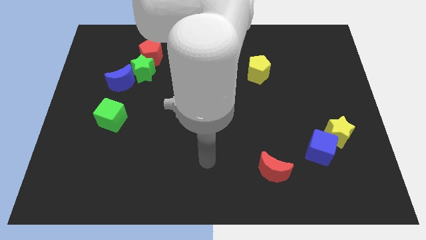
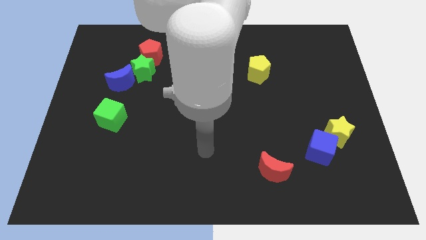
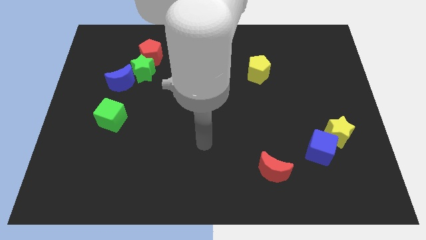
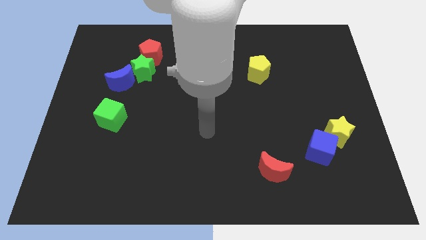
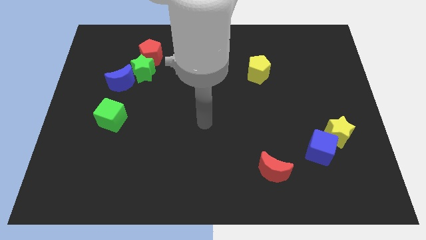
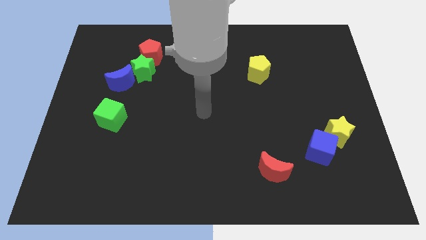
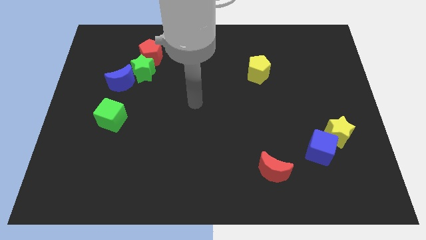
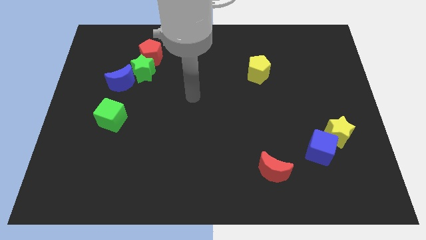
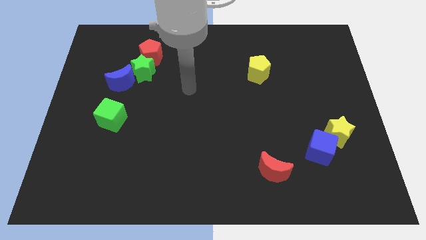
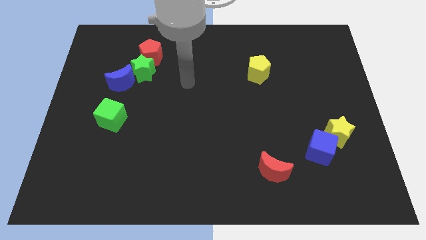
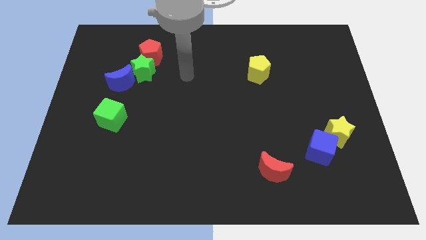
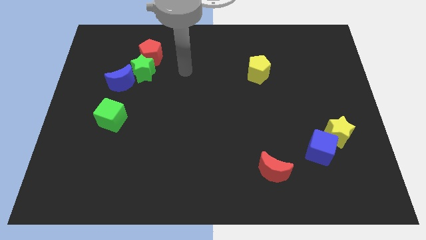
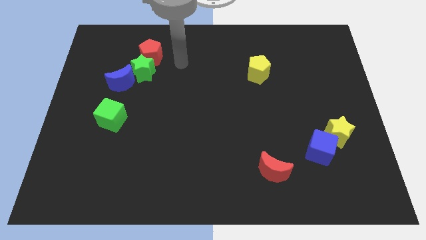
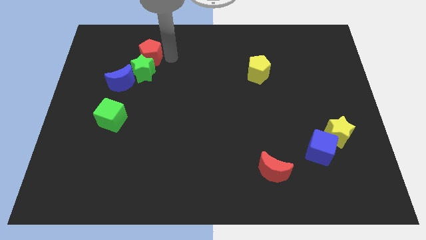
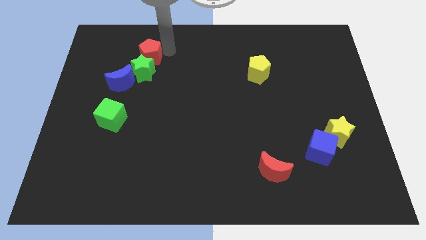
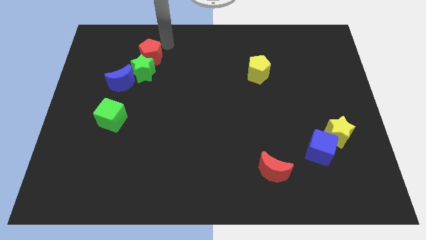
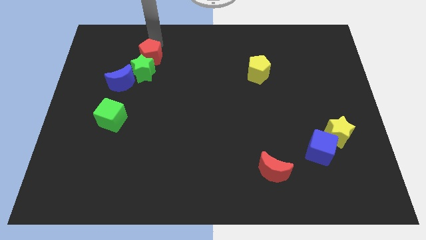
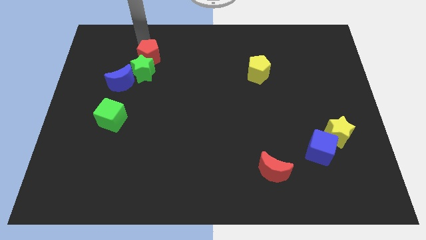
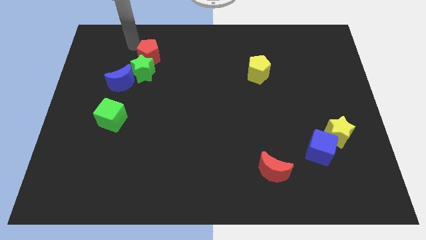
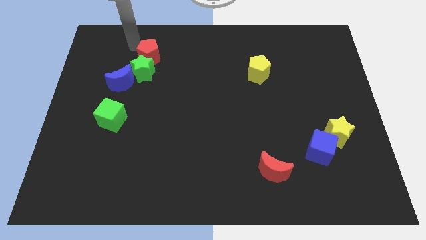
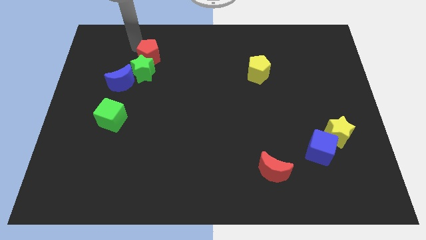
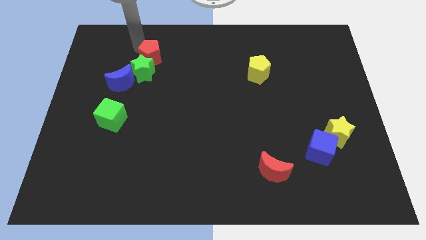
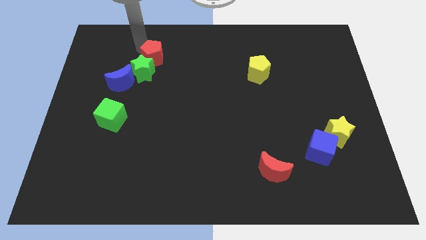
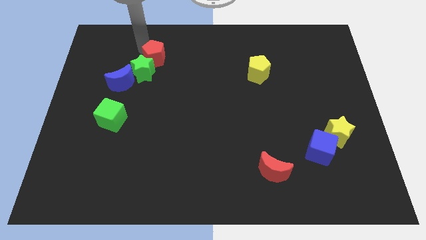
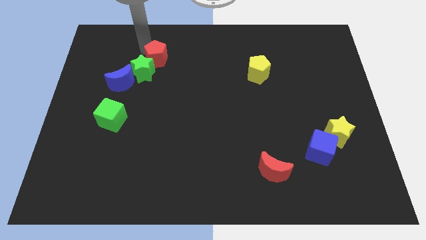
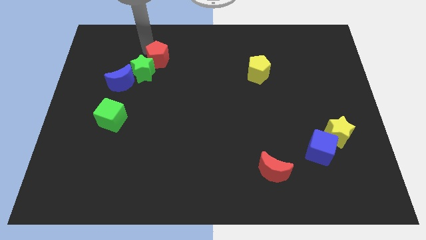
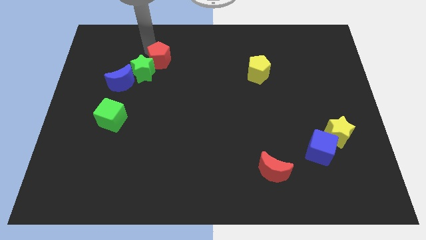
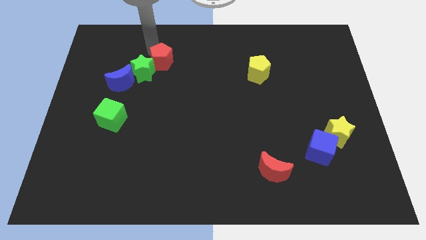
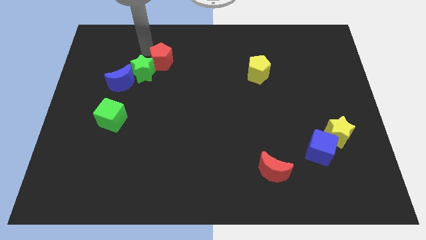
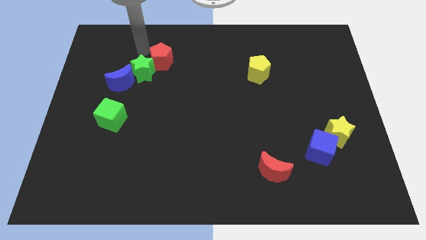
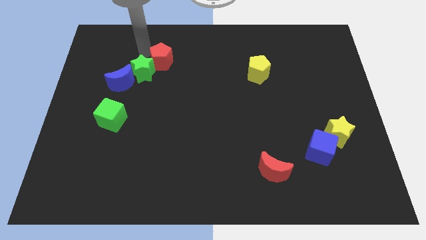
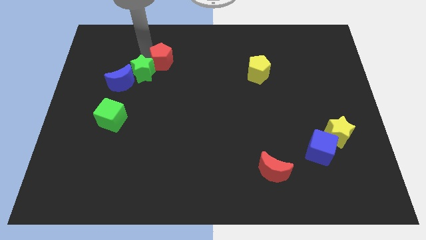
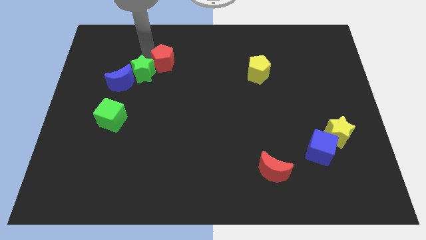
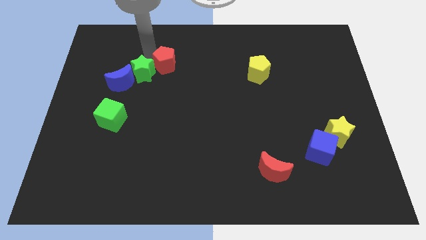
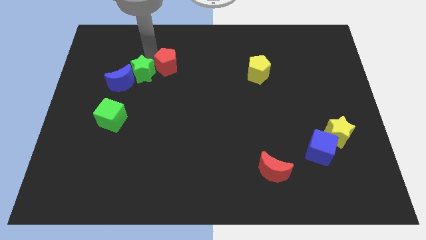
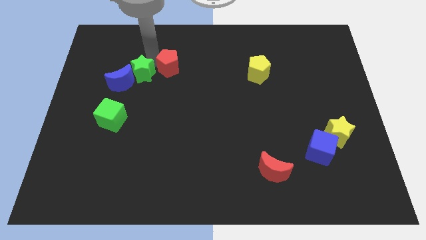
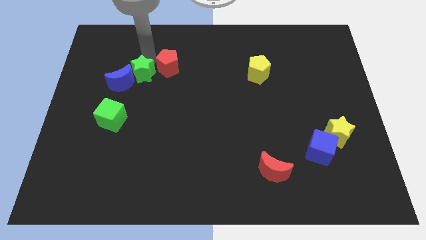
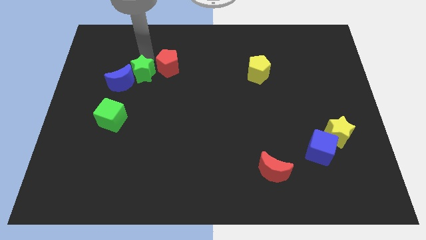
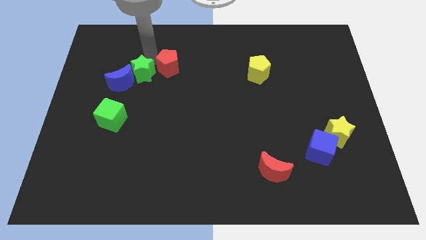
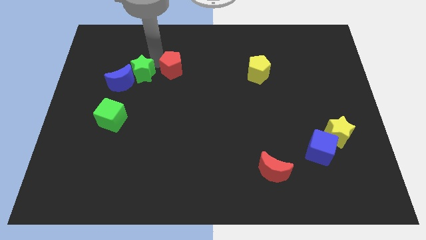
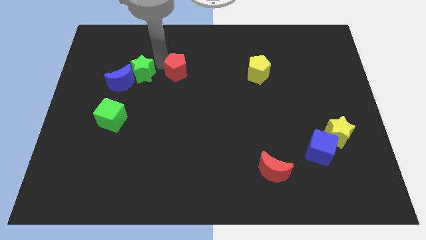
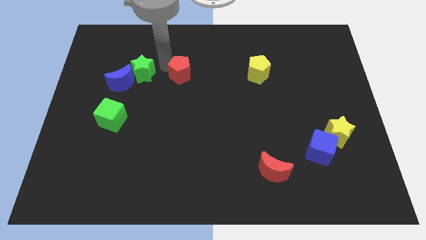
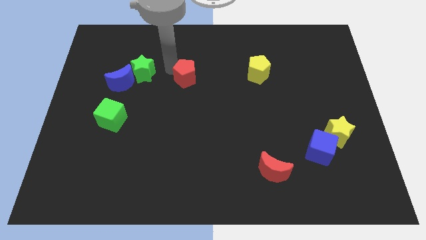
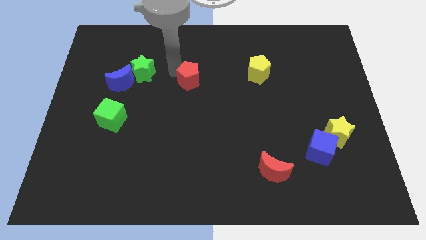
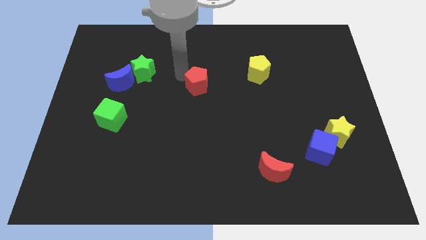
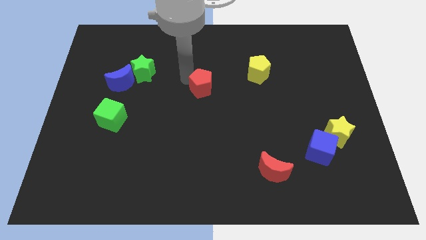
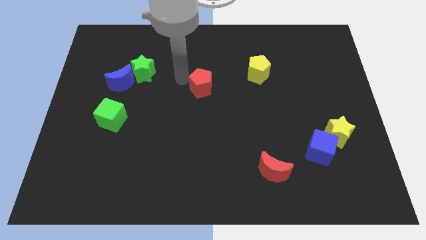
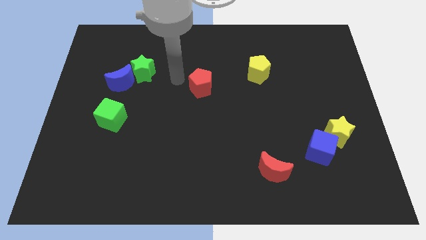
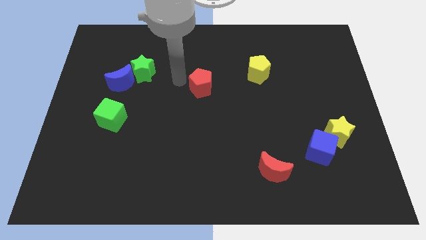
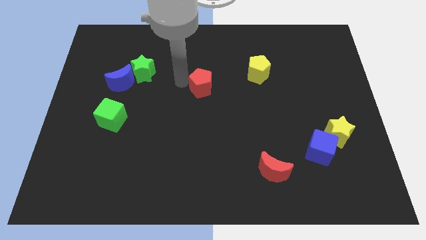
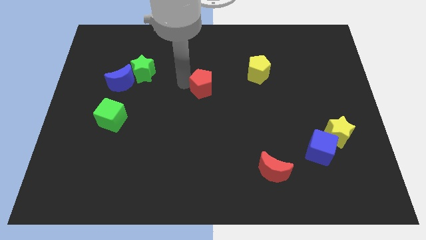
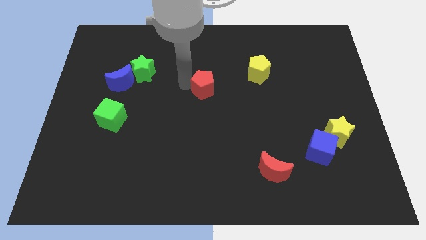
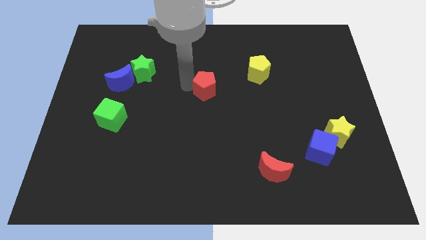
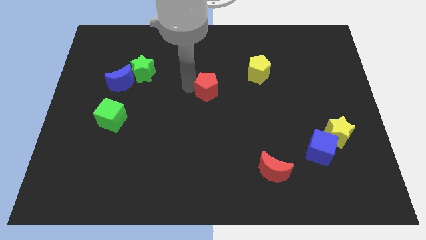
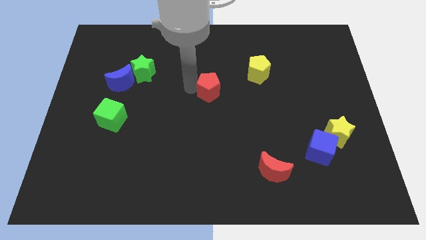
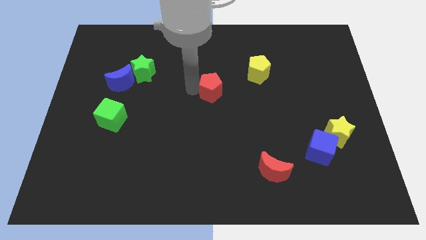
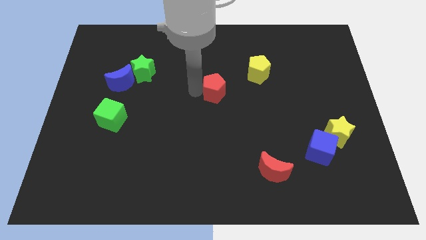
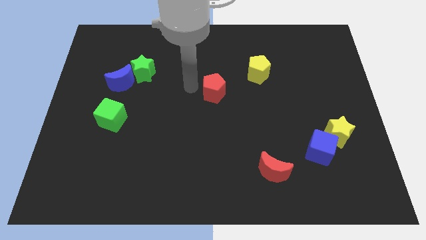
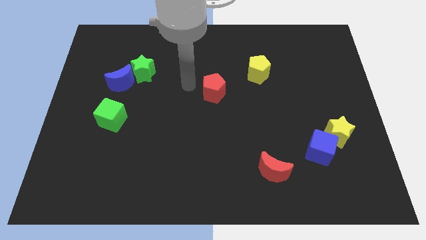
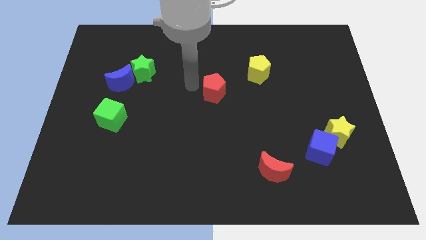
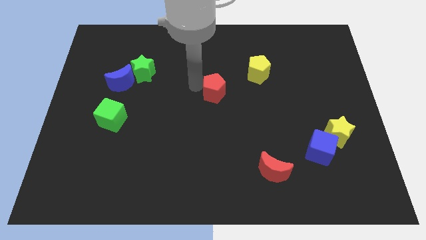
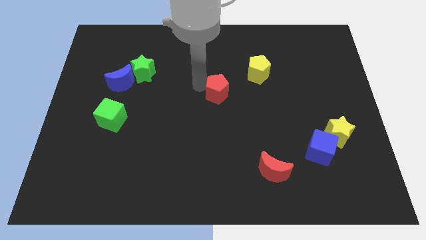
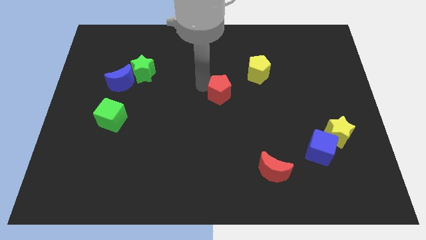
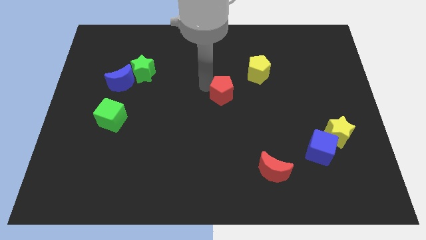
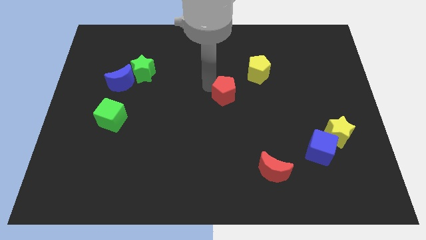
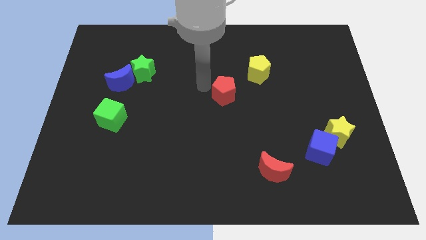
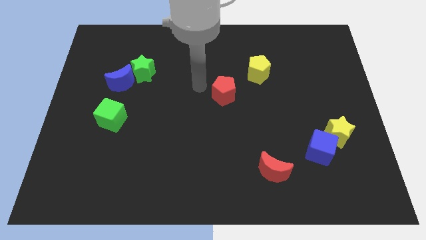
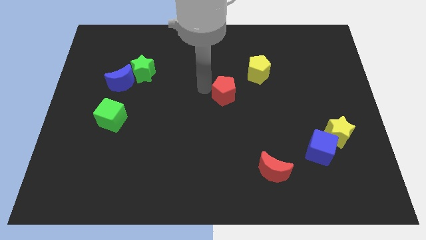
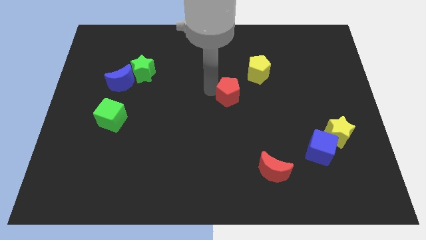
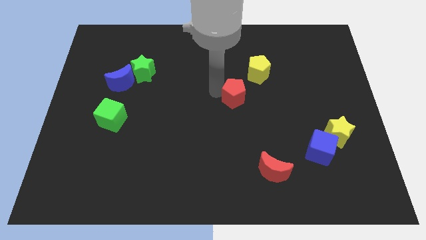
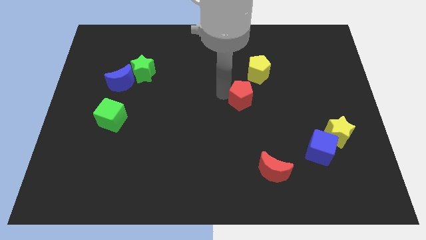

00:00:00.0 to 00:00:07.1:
push the red pentagon to the bottom side of the yellow pentagon

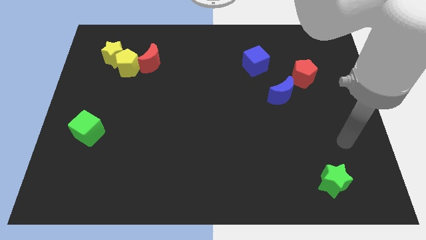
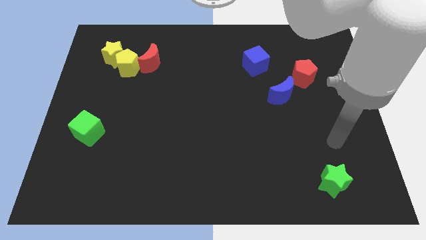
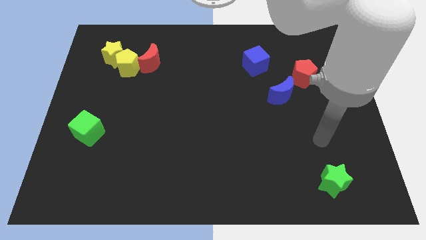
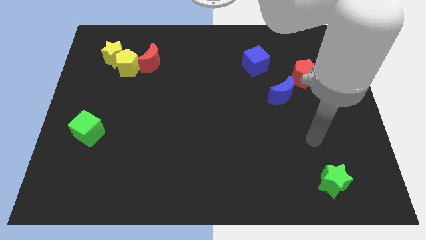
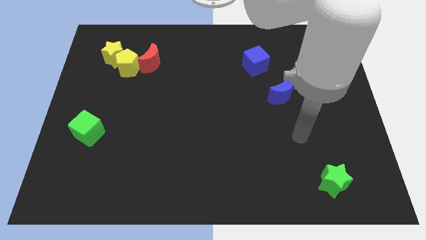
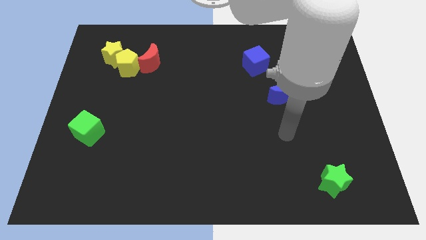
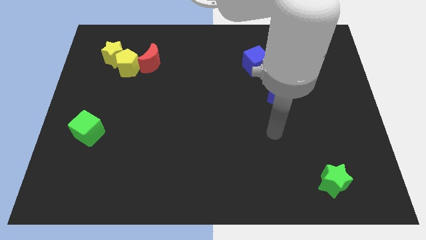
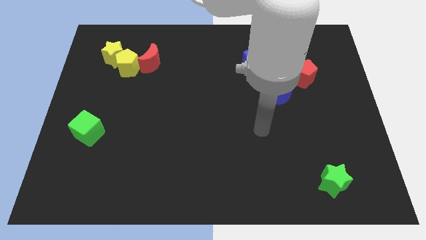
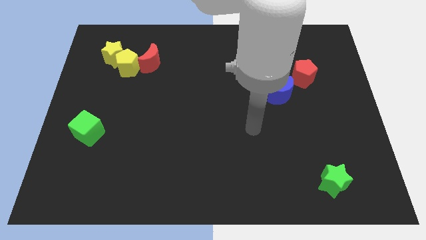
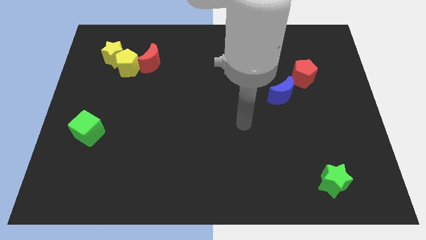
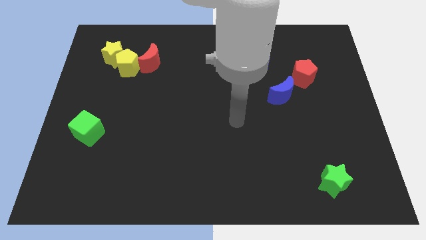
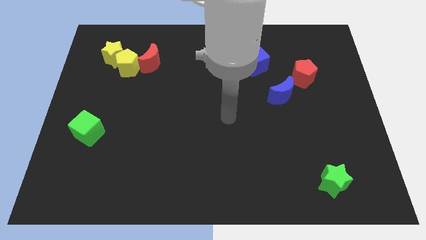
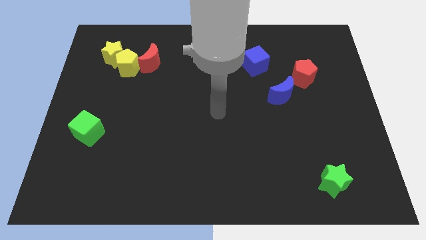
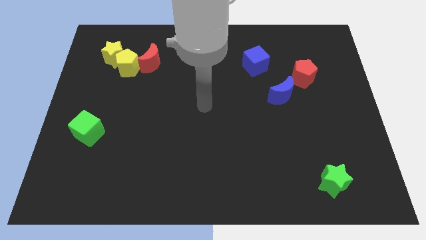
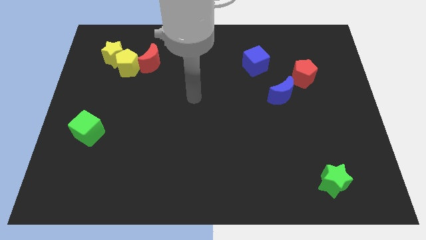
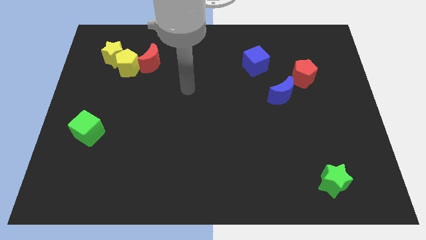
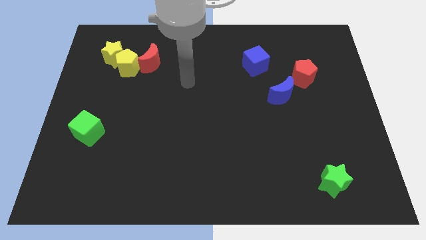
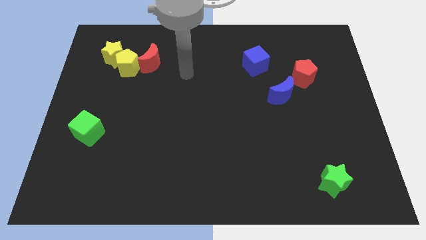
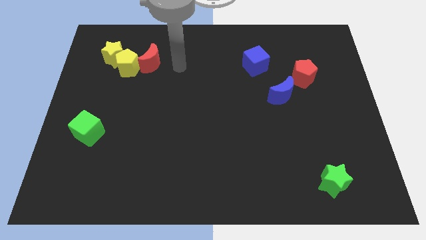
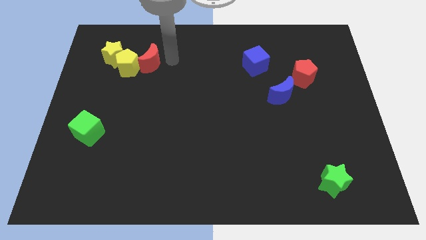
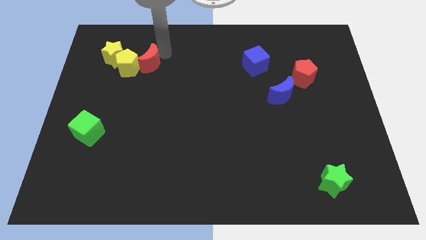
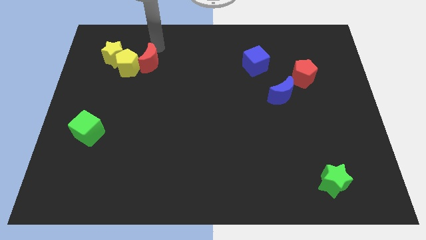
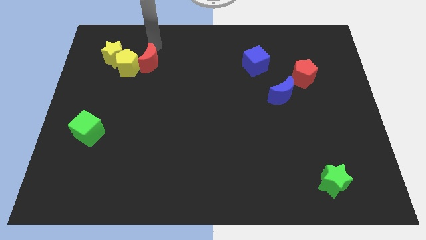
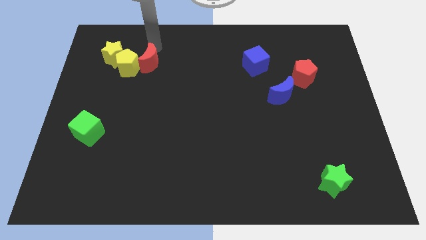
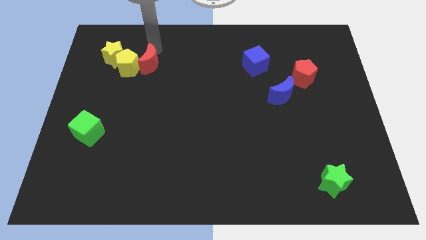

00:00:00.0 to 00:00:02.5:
put the red moon to the bottom right side of the yellow pentagon
